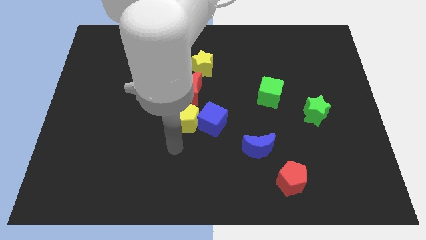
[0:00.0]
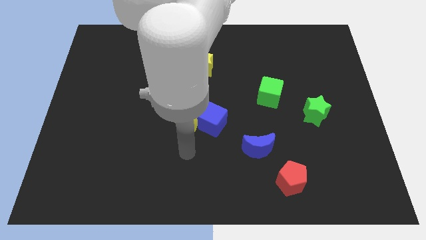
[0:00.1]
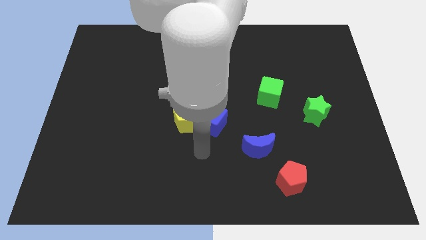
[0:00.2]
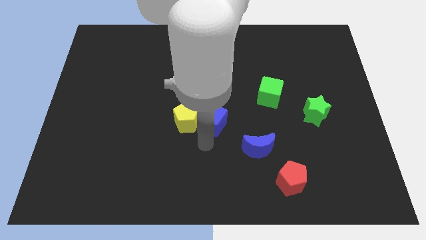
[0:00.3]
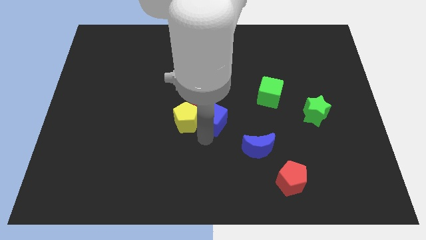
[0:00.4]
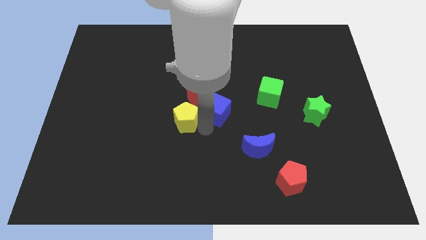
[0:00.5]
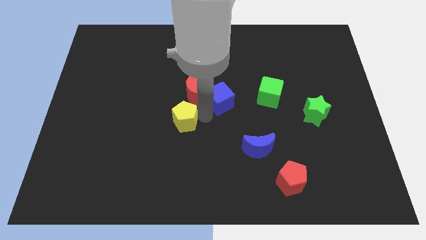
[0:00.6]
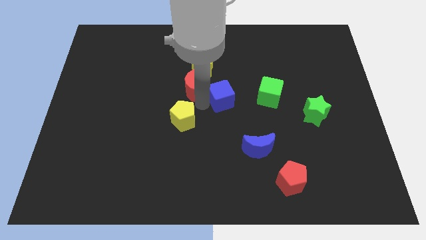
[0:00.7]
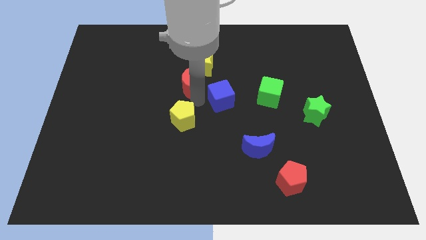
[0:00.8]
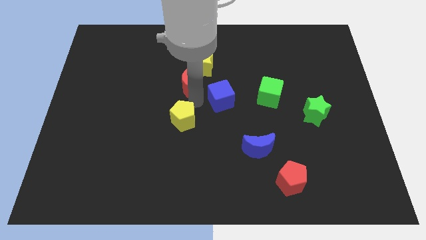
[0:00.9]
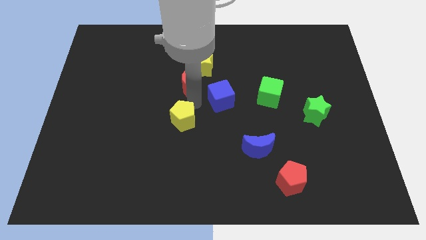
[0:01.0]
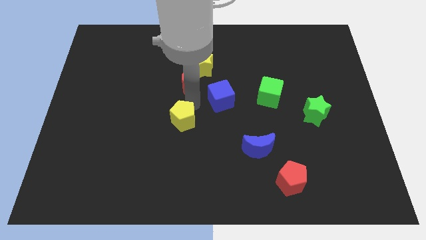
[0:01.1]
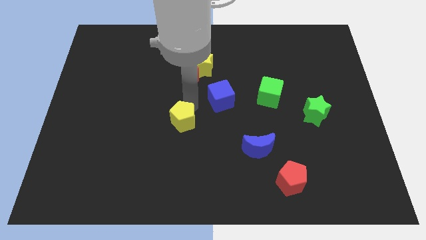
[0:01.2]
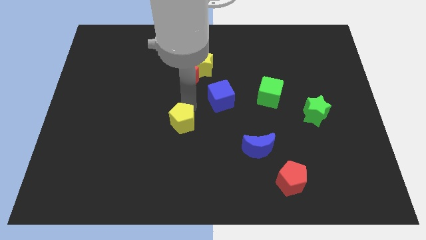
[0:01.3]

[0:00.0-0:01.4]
pull the yellow pentagon apart from the blue cube and red moon

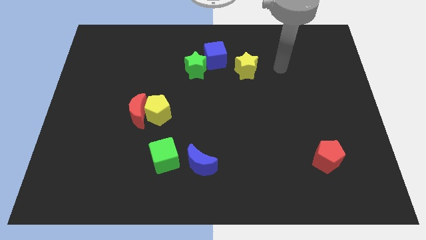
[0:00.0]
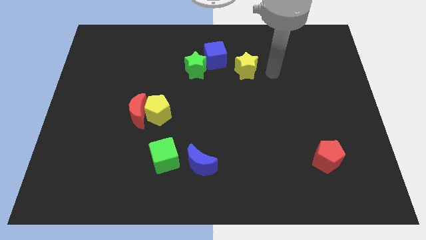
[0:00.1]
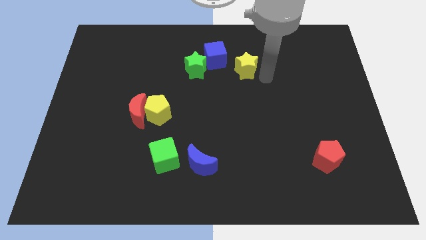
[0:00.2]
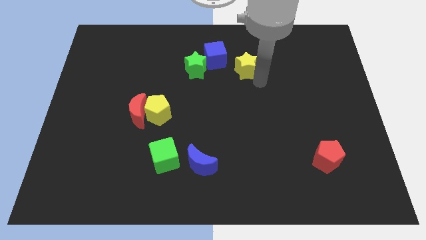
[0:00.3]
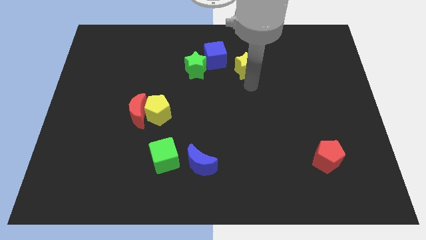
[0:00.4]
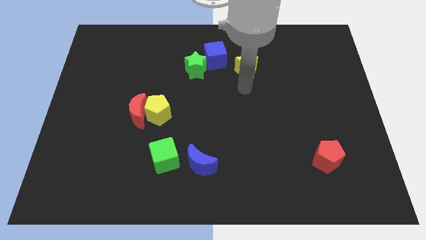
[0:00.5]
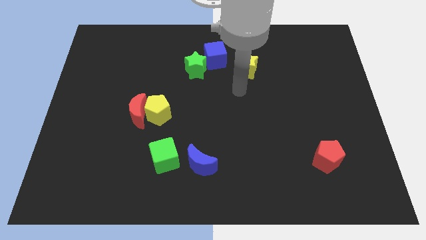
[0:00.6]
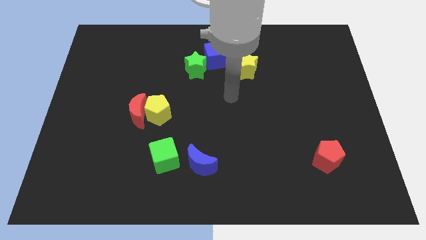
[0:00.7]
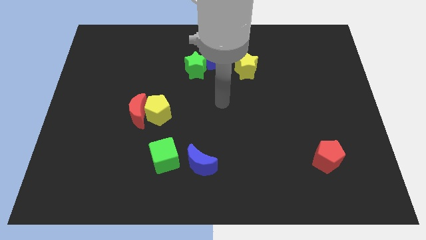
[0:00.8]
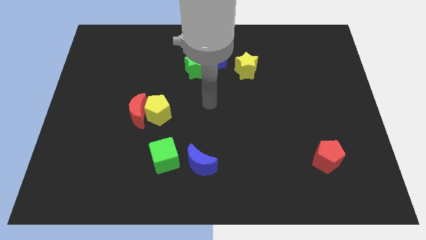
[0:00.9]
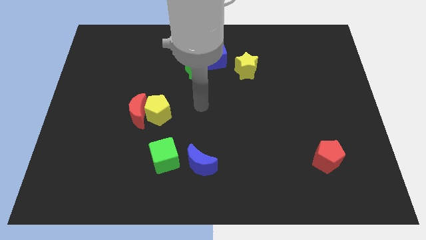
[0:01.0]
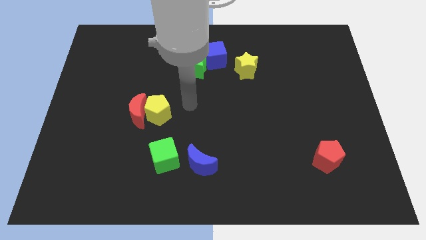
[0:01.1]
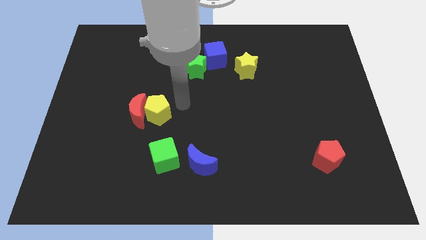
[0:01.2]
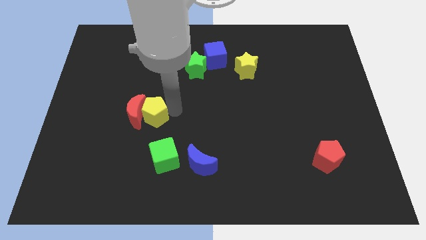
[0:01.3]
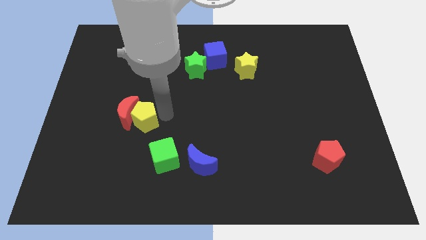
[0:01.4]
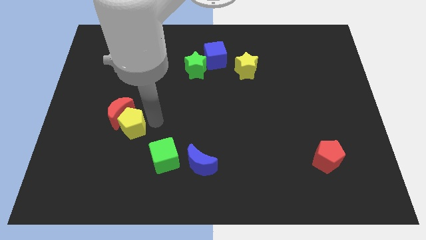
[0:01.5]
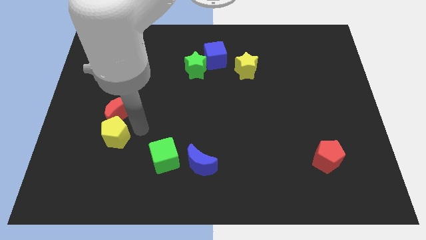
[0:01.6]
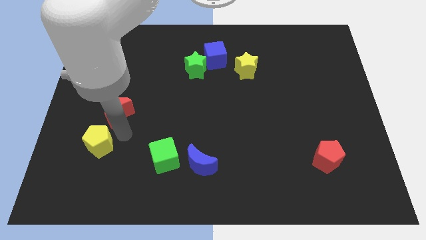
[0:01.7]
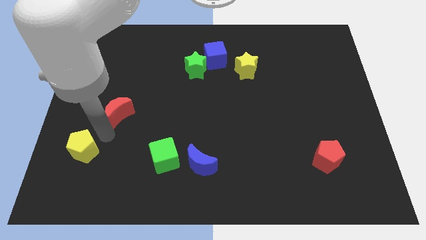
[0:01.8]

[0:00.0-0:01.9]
pull the red moon apart from the yellow pentagon

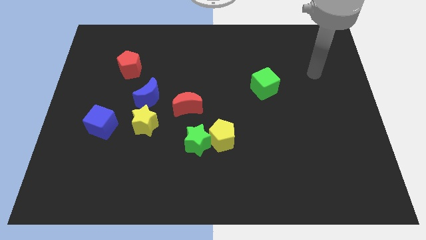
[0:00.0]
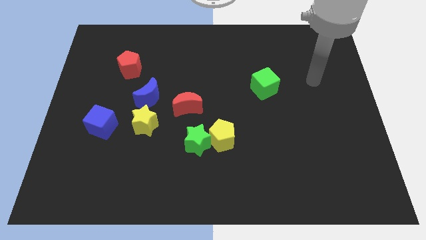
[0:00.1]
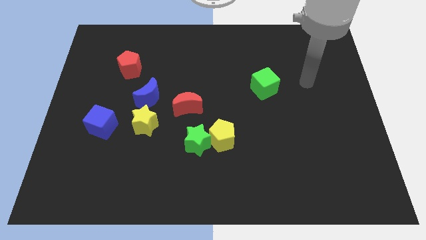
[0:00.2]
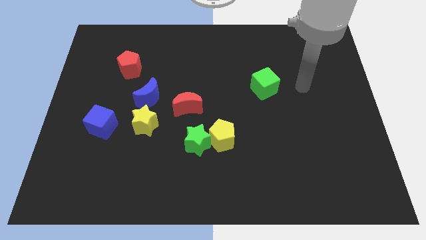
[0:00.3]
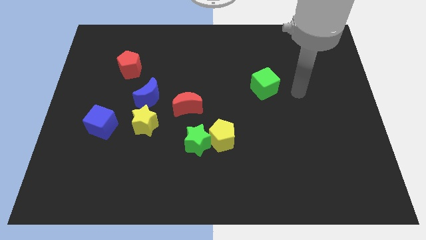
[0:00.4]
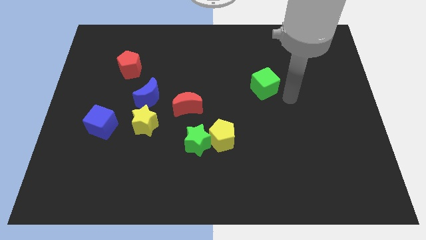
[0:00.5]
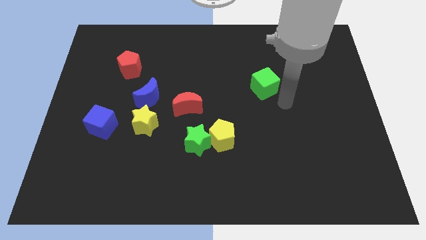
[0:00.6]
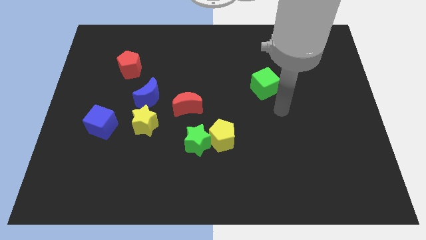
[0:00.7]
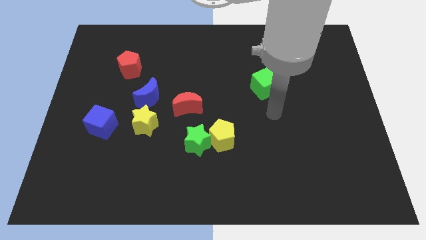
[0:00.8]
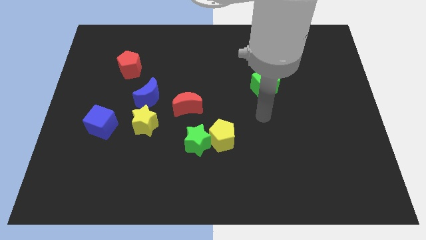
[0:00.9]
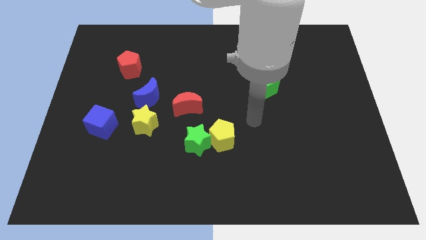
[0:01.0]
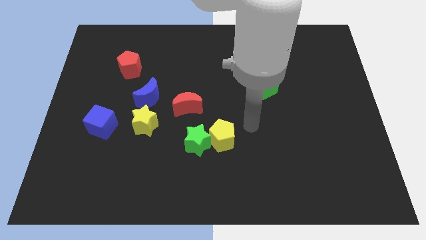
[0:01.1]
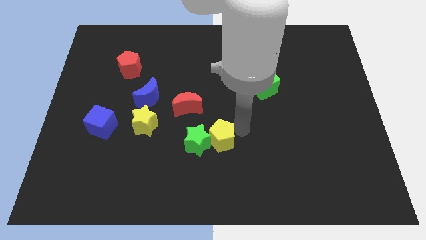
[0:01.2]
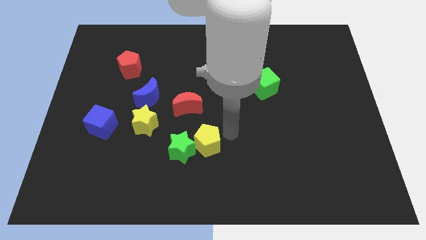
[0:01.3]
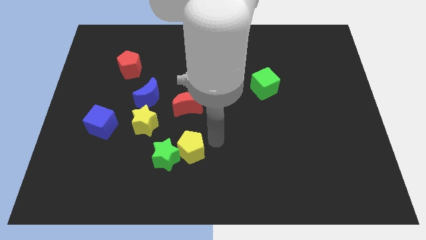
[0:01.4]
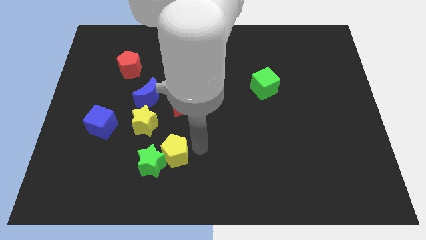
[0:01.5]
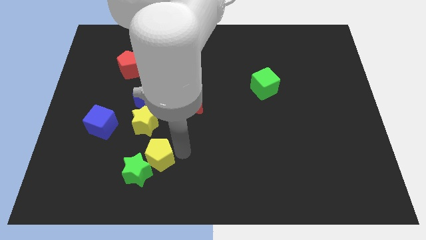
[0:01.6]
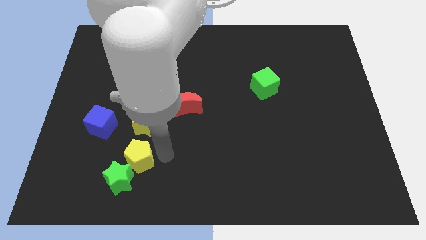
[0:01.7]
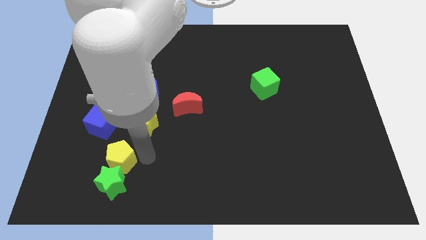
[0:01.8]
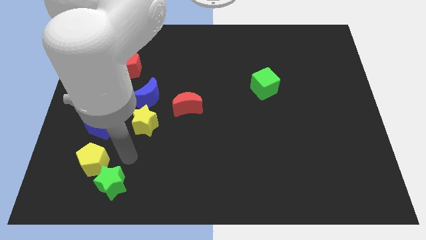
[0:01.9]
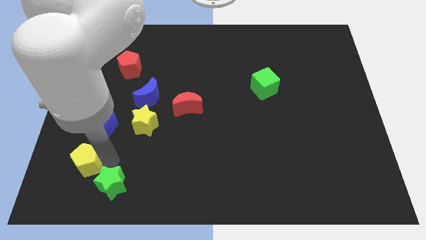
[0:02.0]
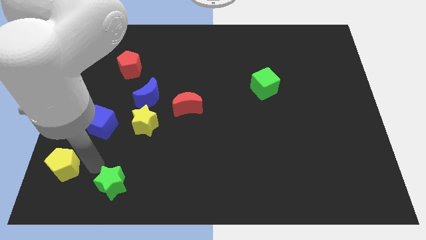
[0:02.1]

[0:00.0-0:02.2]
separate the green star from the yellow pentagon

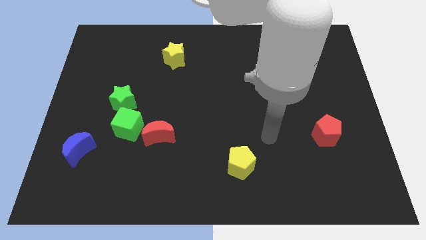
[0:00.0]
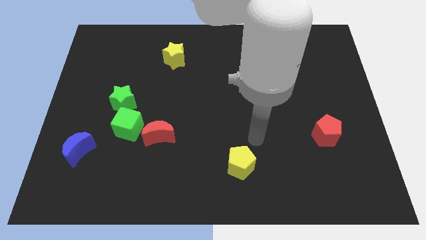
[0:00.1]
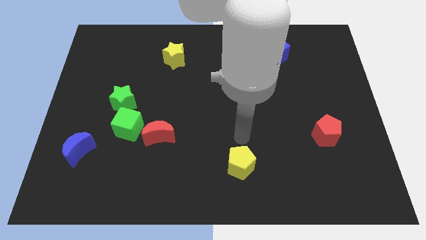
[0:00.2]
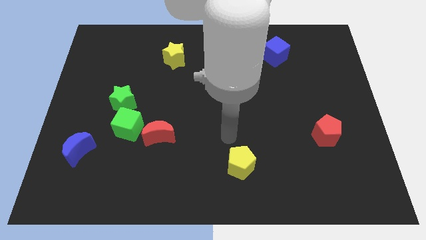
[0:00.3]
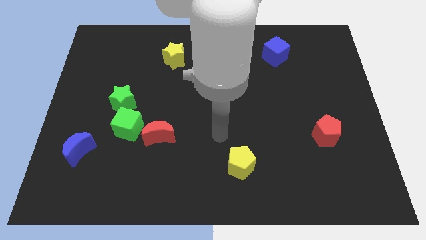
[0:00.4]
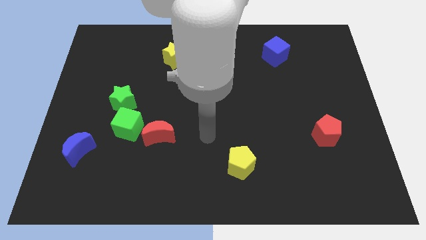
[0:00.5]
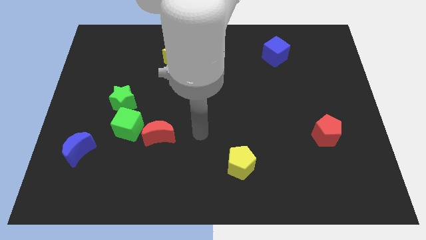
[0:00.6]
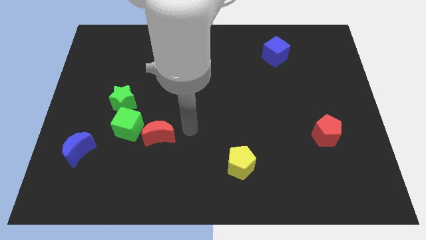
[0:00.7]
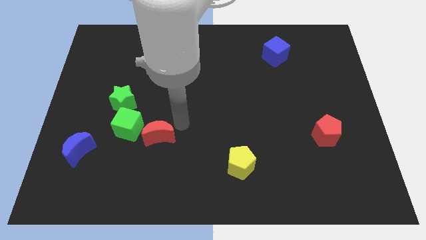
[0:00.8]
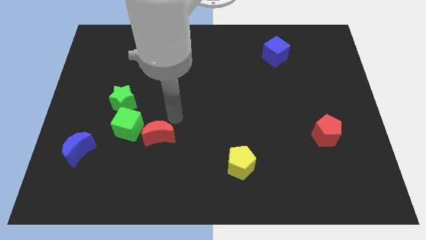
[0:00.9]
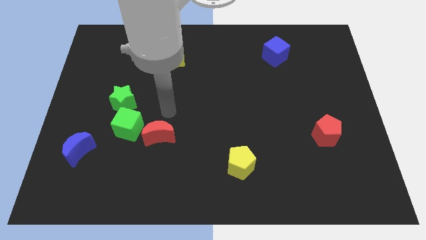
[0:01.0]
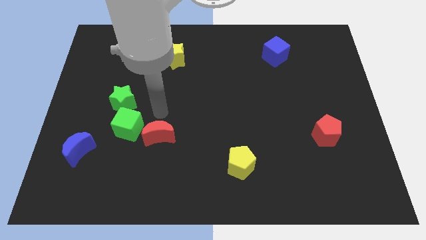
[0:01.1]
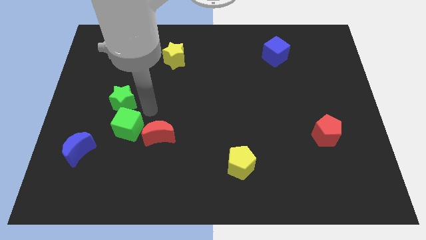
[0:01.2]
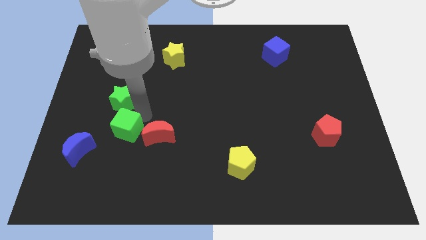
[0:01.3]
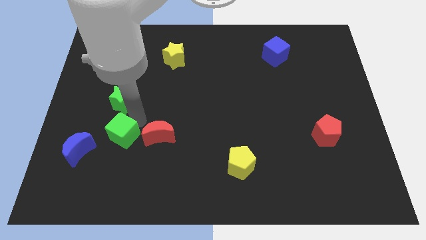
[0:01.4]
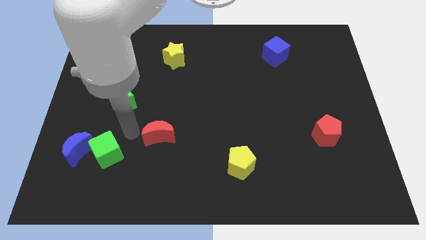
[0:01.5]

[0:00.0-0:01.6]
move the red moon away from the green cube

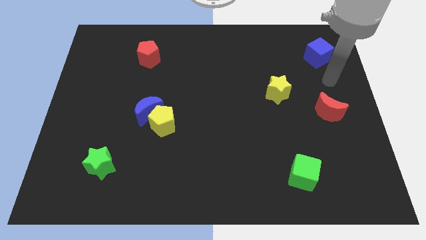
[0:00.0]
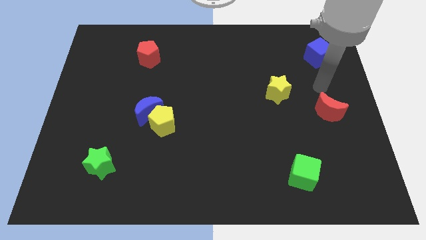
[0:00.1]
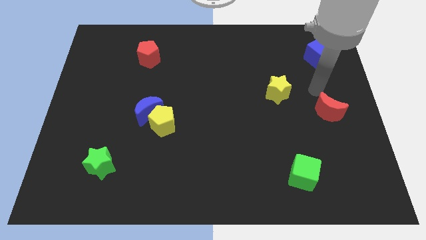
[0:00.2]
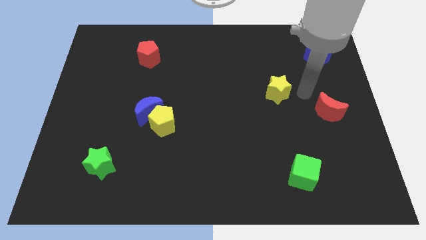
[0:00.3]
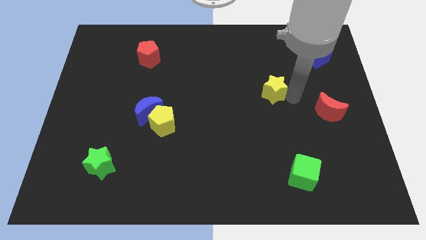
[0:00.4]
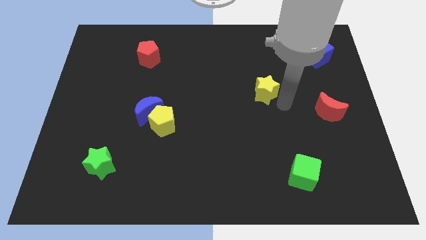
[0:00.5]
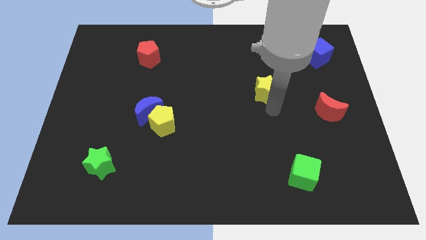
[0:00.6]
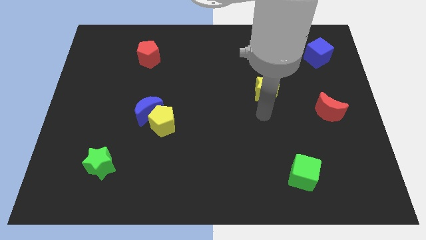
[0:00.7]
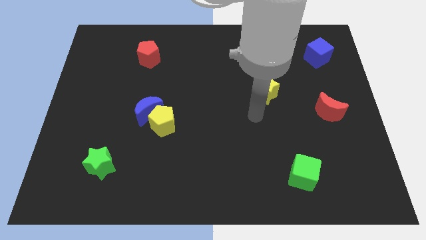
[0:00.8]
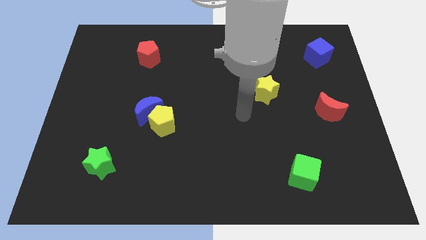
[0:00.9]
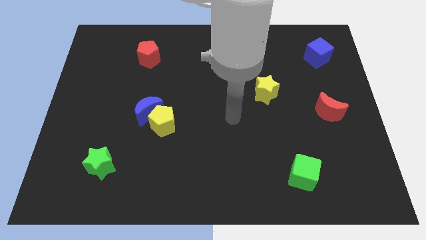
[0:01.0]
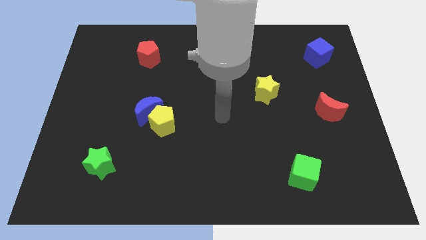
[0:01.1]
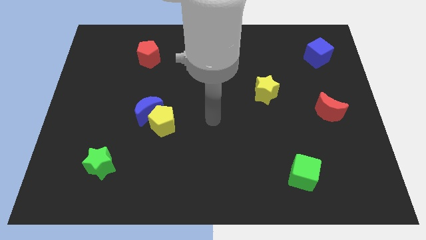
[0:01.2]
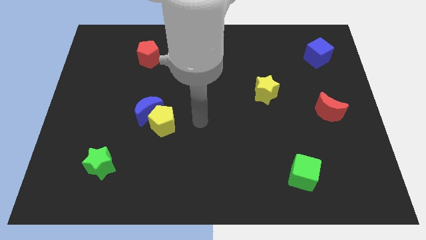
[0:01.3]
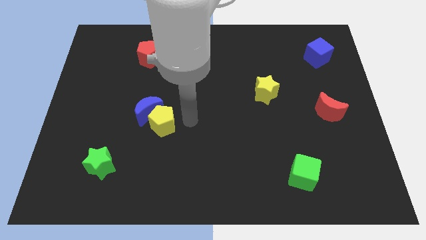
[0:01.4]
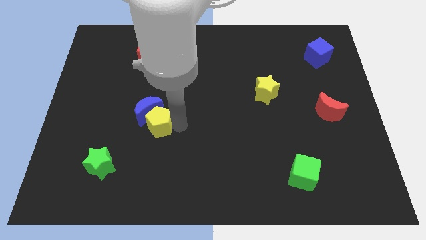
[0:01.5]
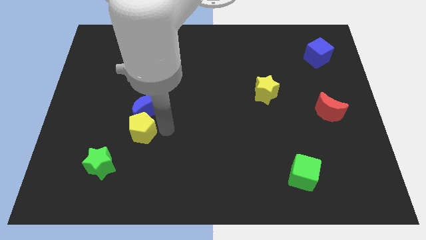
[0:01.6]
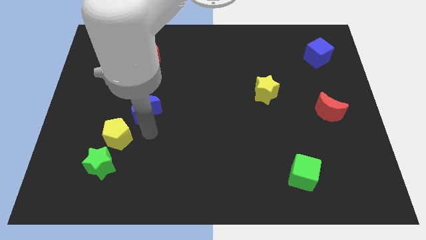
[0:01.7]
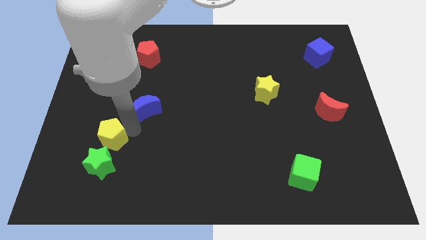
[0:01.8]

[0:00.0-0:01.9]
move the blue moon away from the yellow pentagon

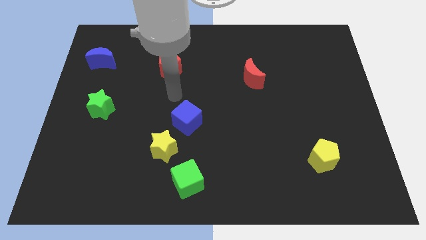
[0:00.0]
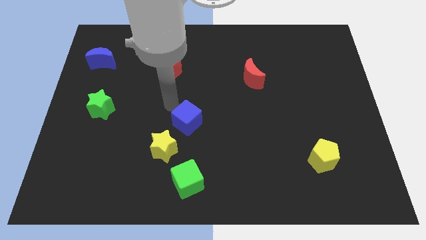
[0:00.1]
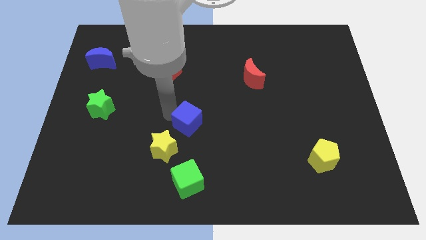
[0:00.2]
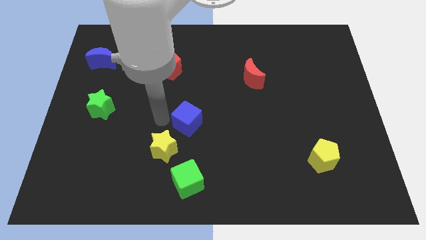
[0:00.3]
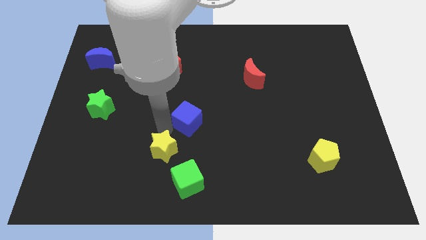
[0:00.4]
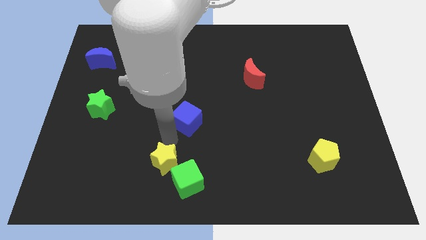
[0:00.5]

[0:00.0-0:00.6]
separate the blue cube from the yellow star
